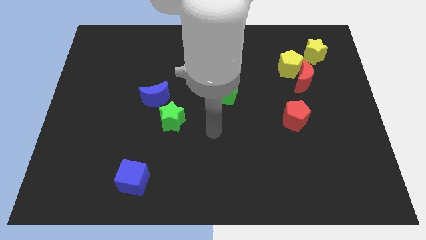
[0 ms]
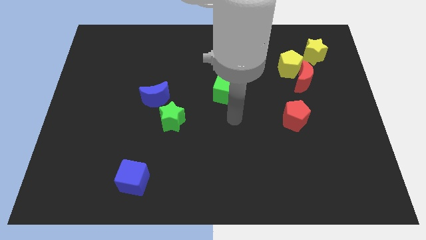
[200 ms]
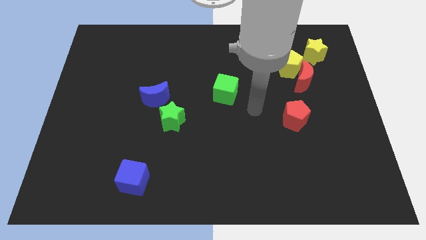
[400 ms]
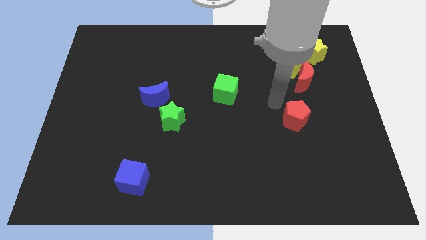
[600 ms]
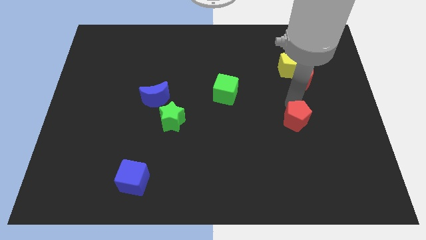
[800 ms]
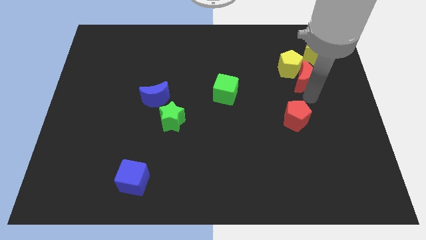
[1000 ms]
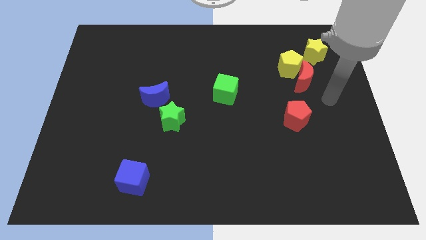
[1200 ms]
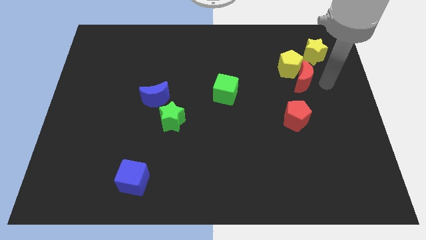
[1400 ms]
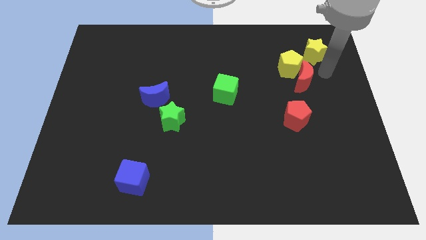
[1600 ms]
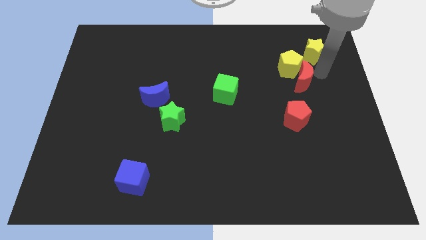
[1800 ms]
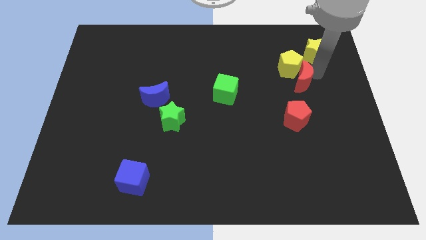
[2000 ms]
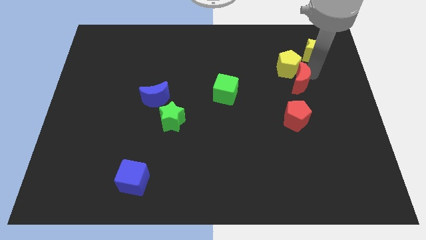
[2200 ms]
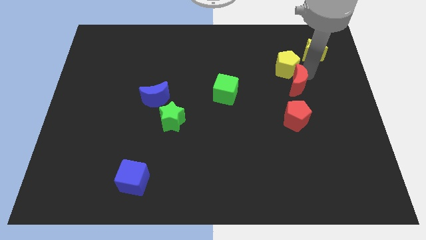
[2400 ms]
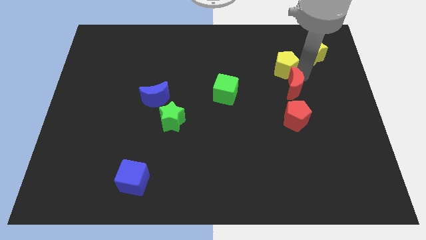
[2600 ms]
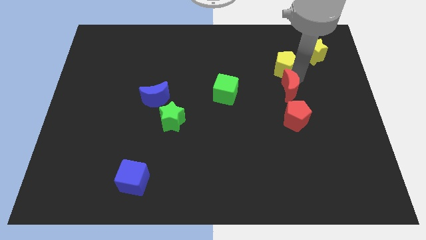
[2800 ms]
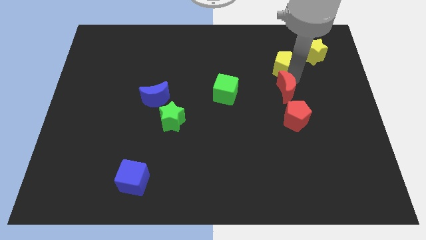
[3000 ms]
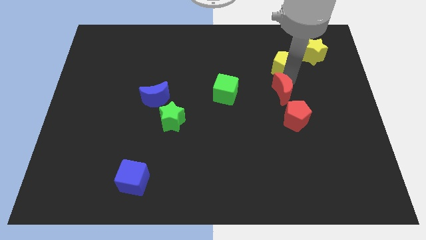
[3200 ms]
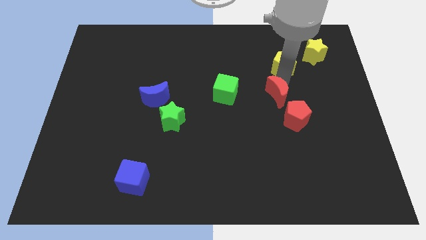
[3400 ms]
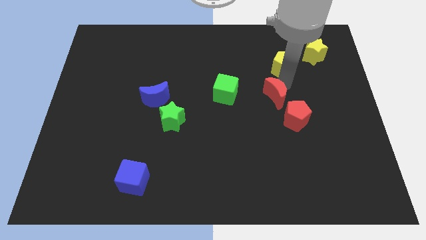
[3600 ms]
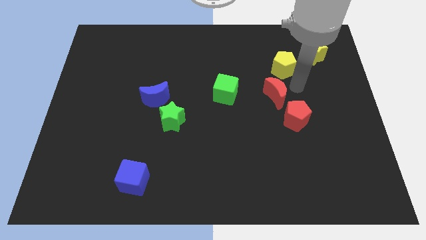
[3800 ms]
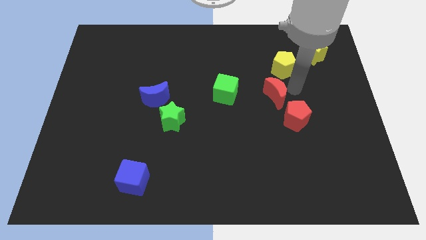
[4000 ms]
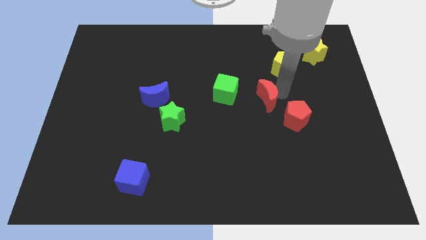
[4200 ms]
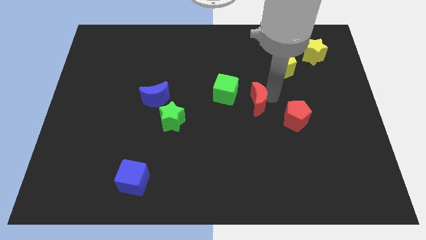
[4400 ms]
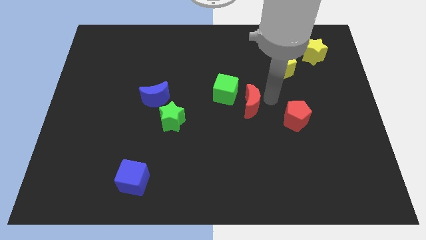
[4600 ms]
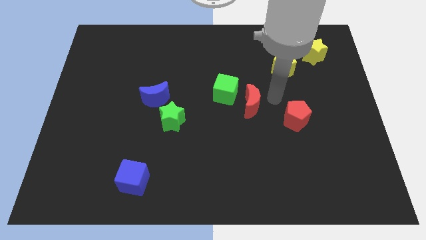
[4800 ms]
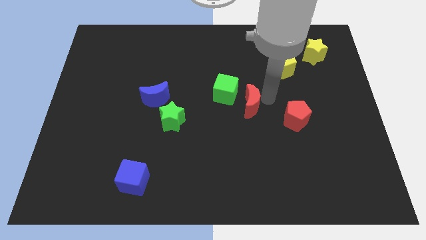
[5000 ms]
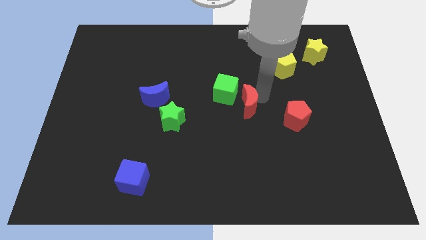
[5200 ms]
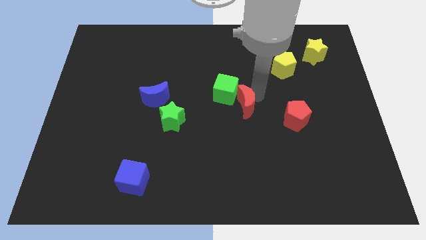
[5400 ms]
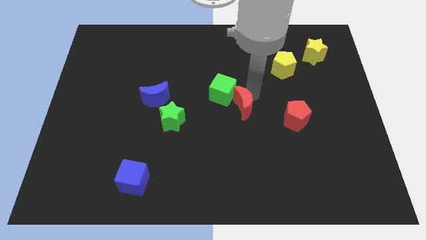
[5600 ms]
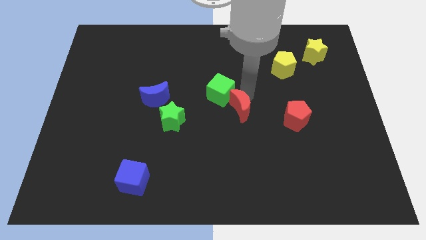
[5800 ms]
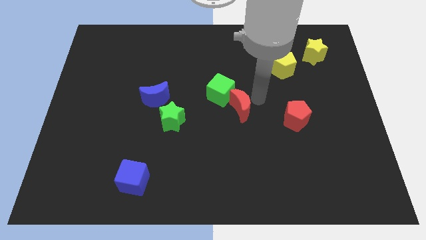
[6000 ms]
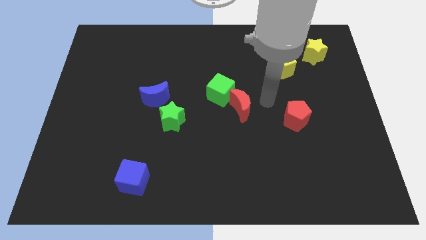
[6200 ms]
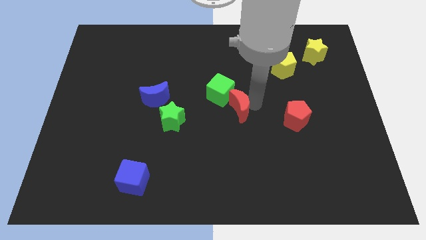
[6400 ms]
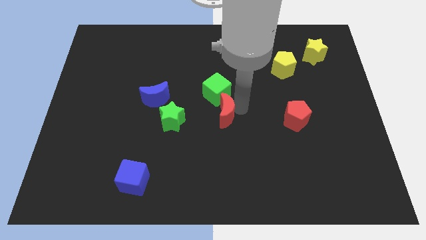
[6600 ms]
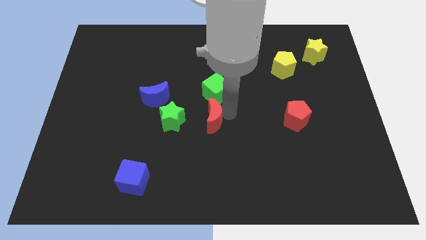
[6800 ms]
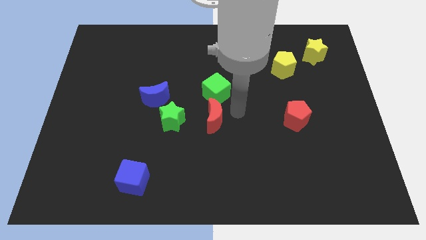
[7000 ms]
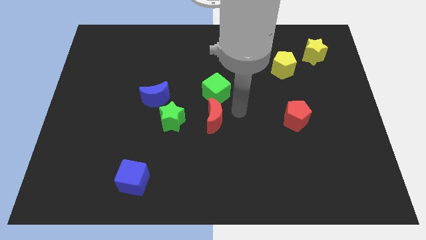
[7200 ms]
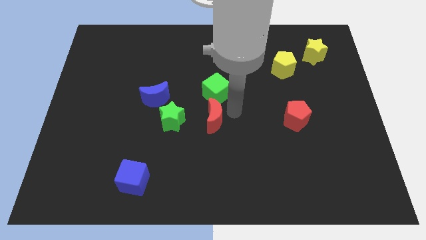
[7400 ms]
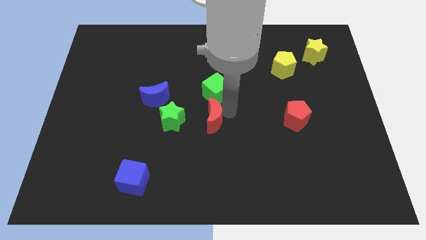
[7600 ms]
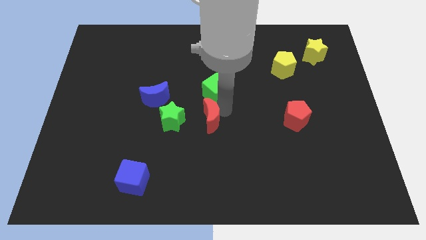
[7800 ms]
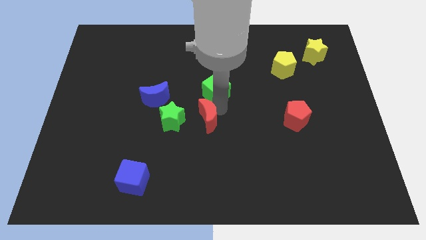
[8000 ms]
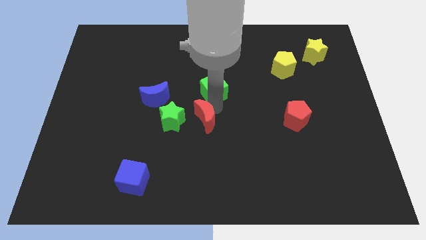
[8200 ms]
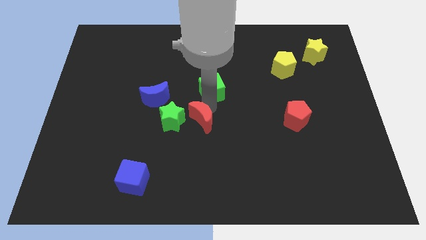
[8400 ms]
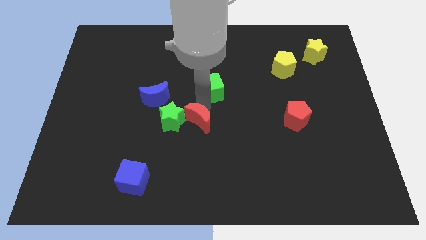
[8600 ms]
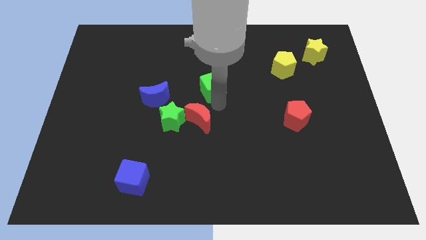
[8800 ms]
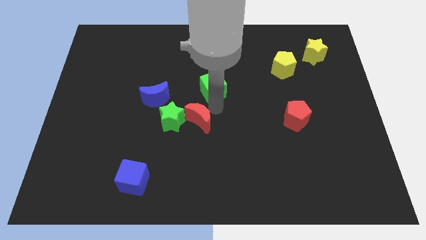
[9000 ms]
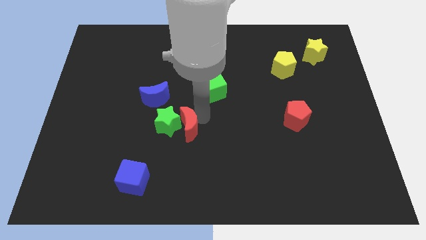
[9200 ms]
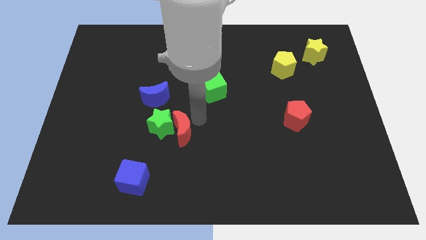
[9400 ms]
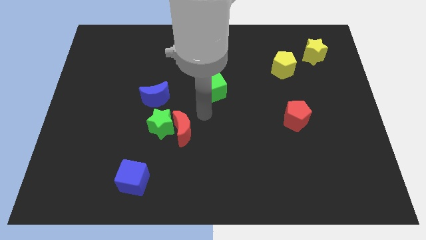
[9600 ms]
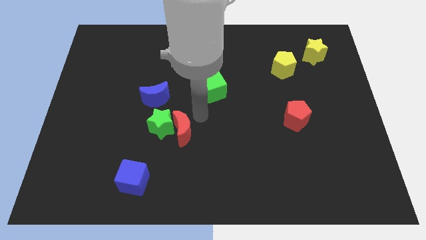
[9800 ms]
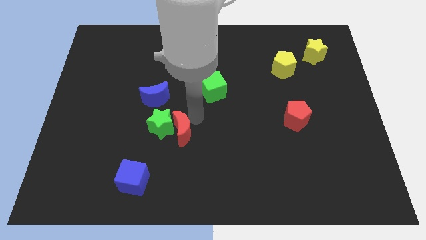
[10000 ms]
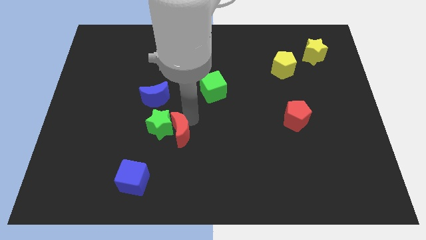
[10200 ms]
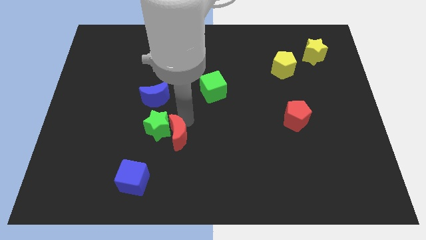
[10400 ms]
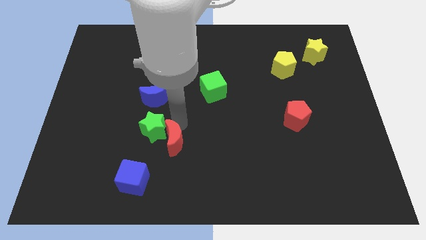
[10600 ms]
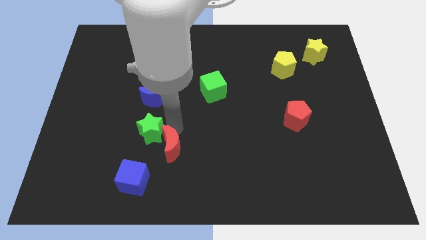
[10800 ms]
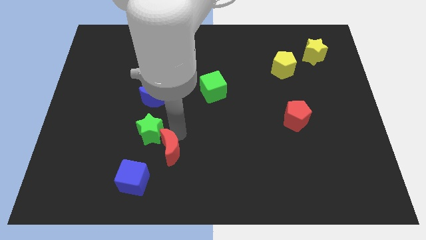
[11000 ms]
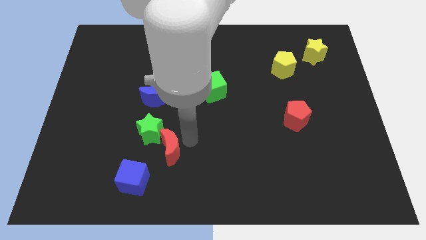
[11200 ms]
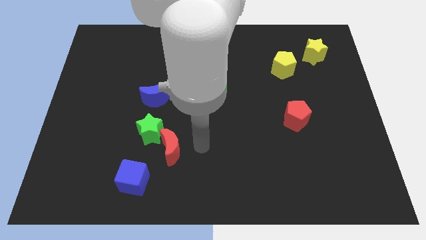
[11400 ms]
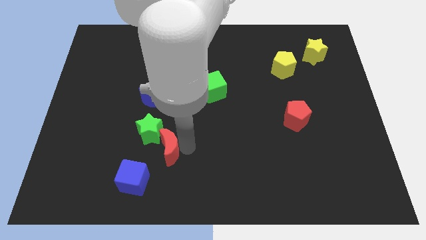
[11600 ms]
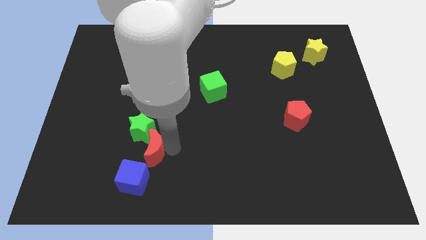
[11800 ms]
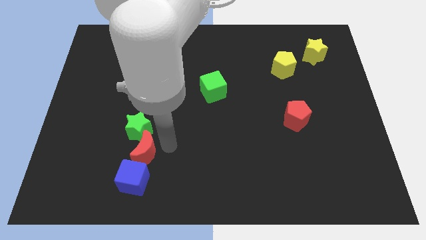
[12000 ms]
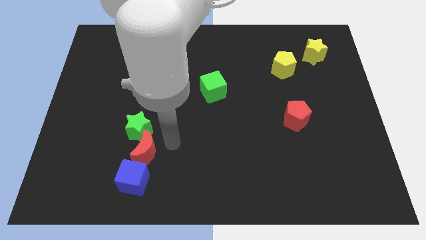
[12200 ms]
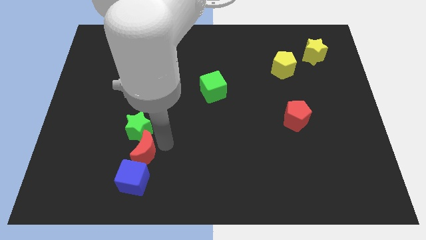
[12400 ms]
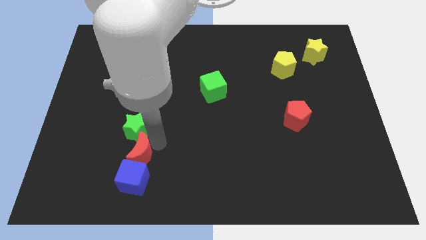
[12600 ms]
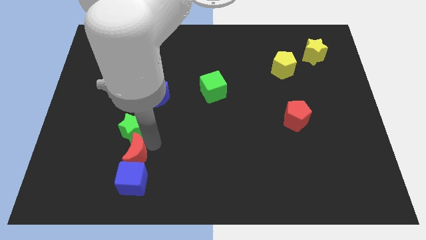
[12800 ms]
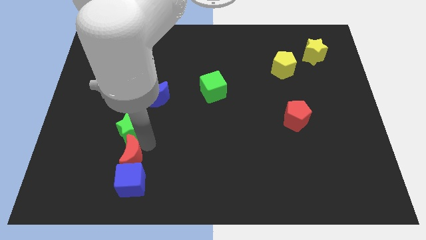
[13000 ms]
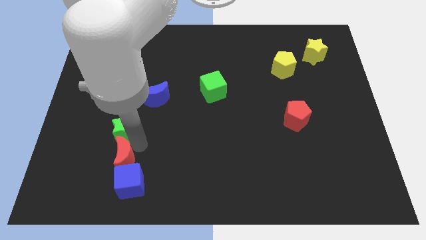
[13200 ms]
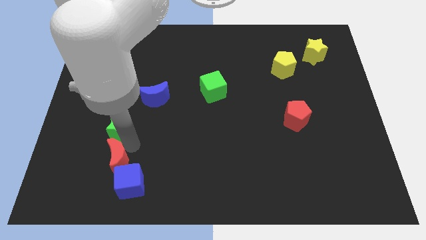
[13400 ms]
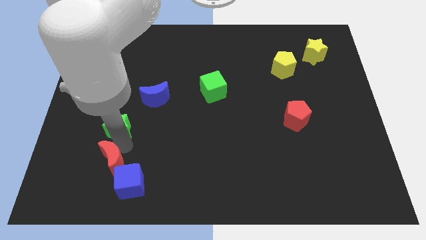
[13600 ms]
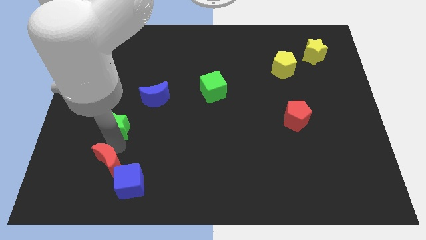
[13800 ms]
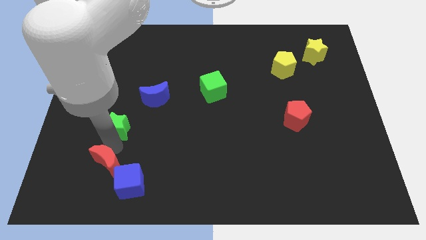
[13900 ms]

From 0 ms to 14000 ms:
move the red moon to the left side of the blue cube
